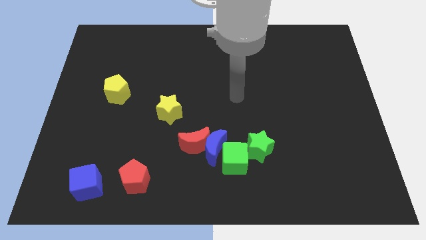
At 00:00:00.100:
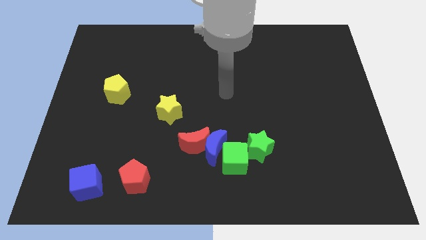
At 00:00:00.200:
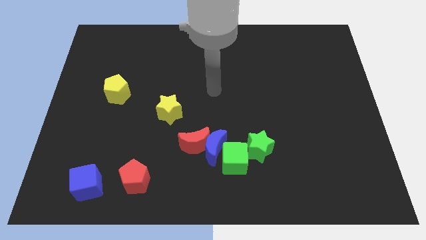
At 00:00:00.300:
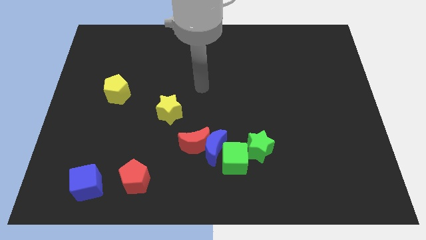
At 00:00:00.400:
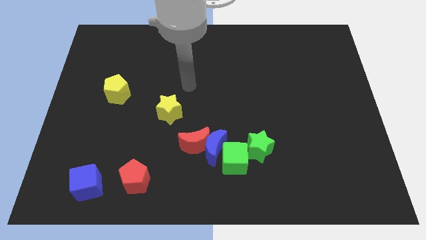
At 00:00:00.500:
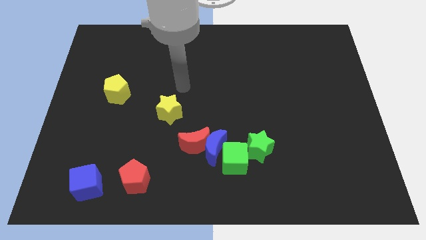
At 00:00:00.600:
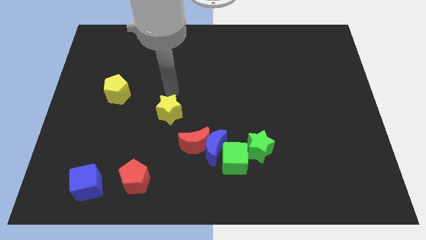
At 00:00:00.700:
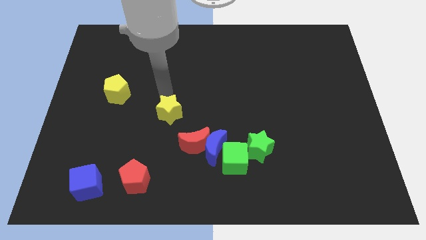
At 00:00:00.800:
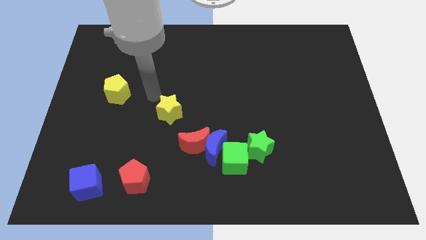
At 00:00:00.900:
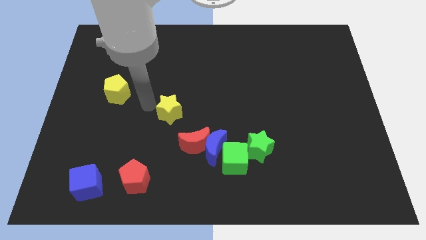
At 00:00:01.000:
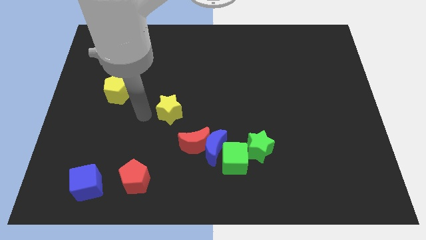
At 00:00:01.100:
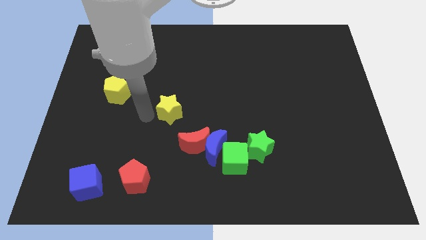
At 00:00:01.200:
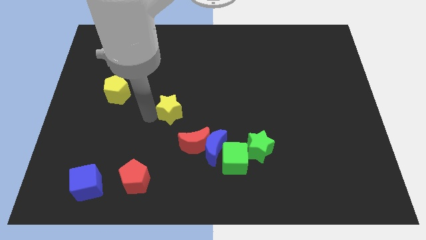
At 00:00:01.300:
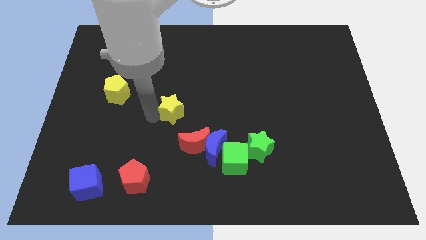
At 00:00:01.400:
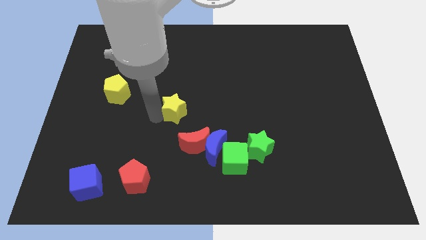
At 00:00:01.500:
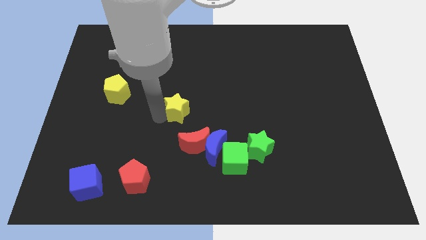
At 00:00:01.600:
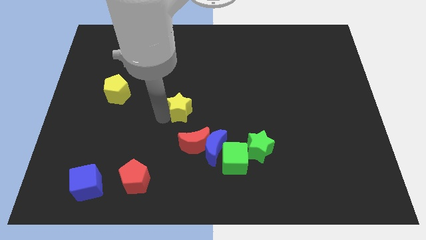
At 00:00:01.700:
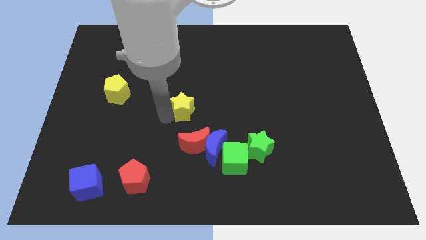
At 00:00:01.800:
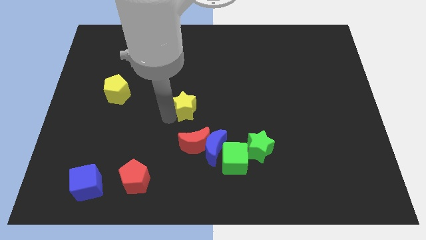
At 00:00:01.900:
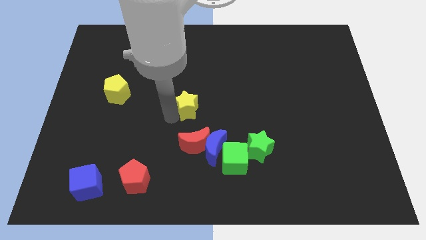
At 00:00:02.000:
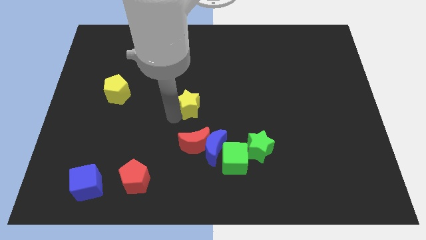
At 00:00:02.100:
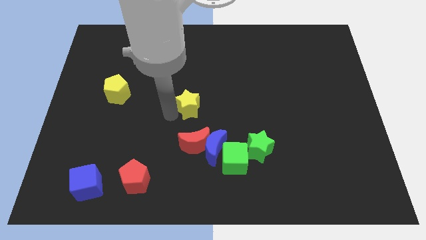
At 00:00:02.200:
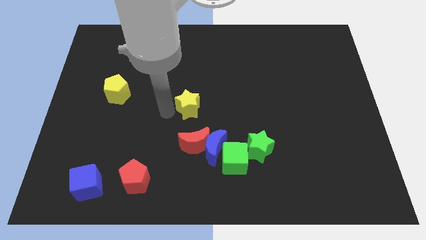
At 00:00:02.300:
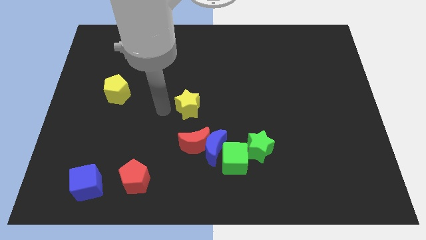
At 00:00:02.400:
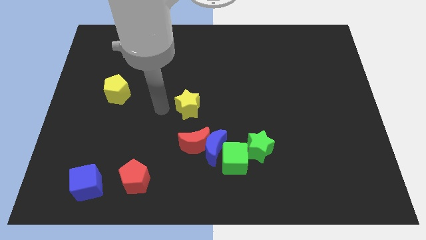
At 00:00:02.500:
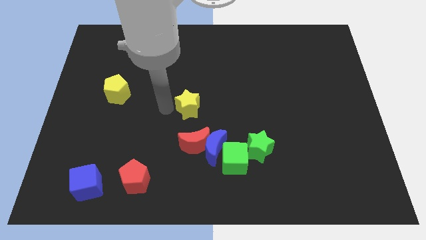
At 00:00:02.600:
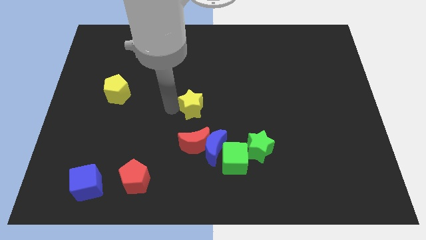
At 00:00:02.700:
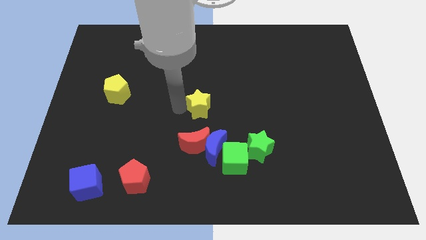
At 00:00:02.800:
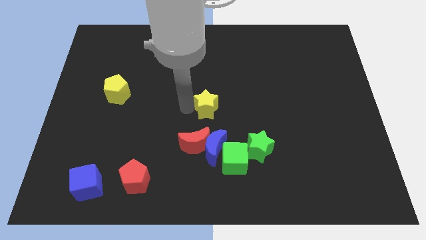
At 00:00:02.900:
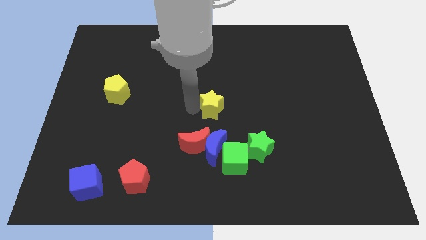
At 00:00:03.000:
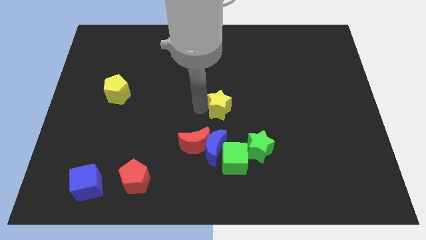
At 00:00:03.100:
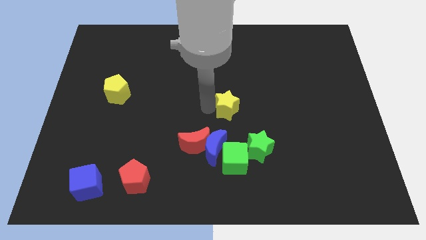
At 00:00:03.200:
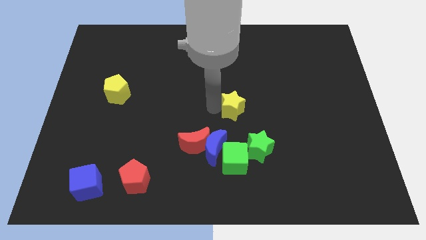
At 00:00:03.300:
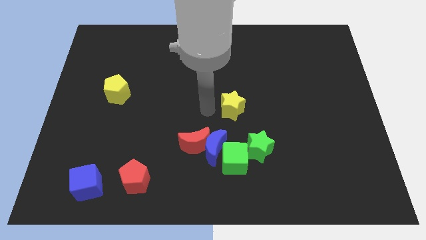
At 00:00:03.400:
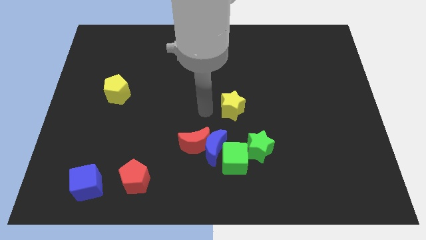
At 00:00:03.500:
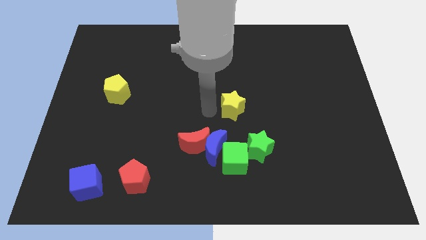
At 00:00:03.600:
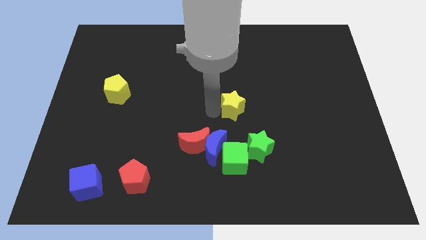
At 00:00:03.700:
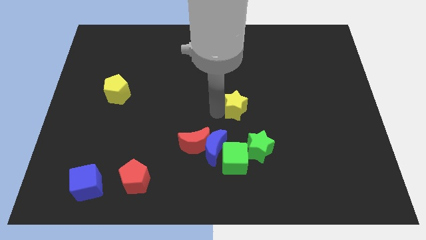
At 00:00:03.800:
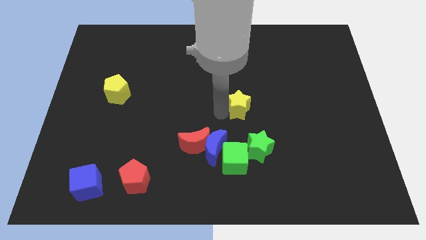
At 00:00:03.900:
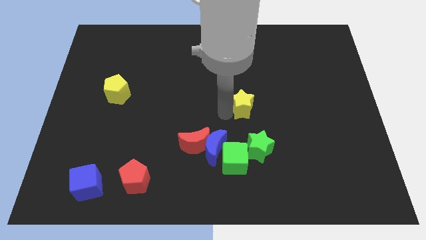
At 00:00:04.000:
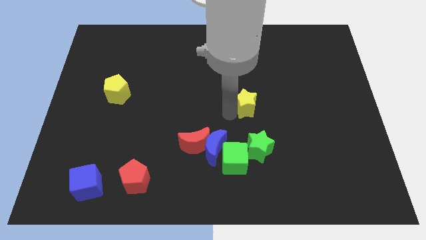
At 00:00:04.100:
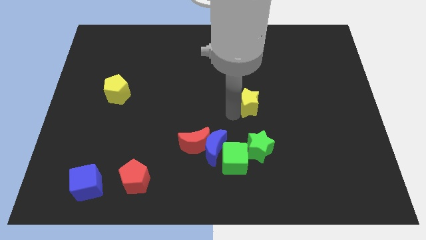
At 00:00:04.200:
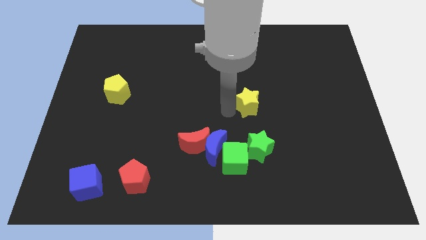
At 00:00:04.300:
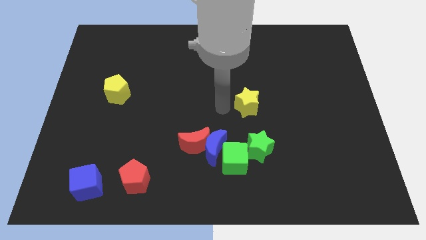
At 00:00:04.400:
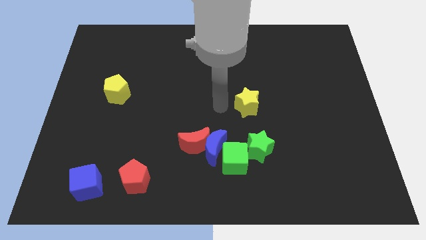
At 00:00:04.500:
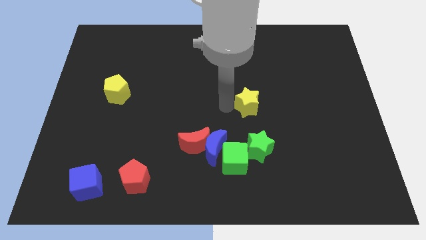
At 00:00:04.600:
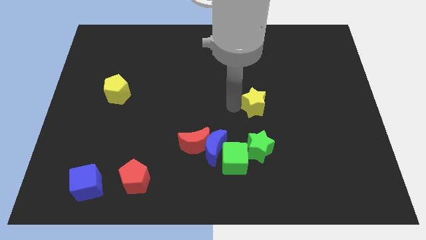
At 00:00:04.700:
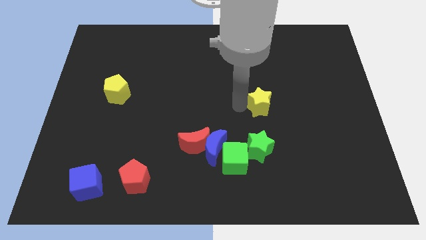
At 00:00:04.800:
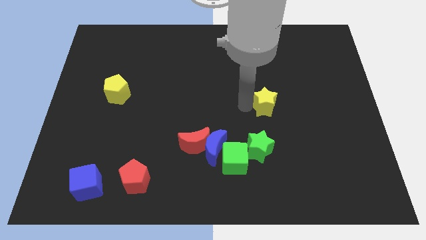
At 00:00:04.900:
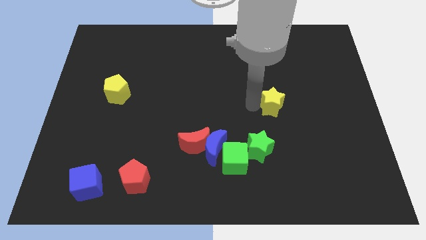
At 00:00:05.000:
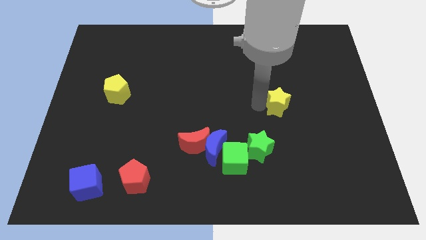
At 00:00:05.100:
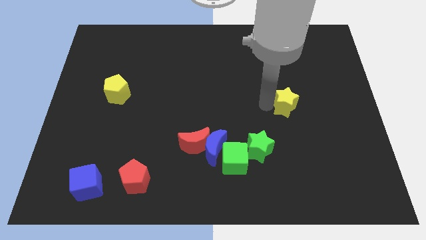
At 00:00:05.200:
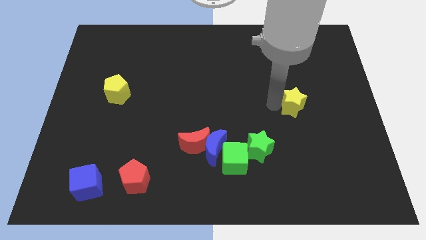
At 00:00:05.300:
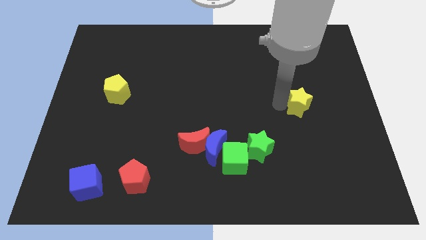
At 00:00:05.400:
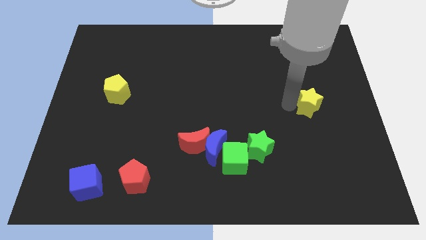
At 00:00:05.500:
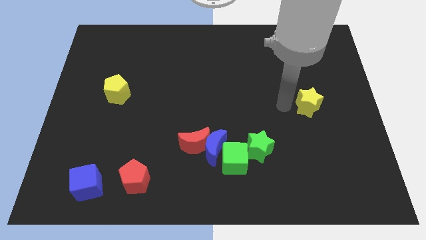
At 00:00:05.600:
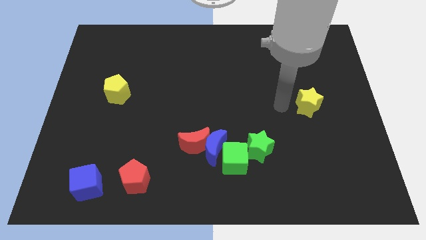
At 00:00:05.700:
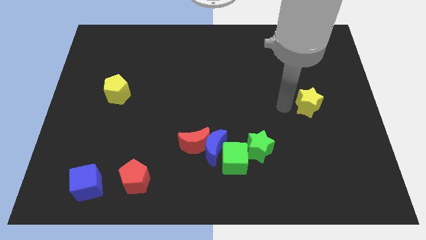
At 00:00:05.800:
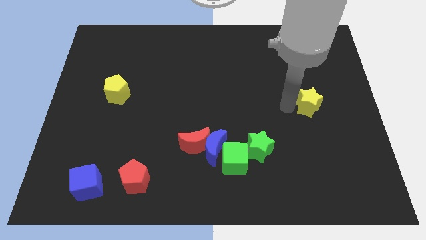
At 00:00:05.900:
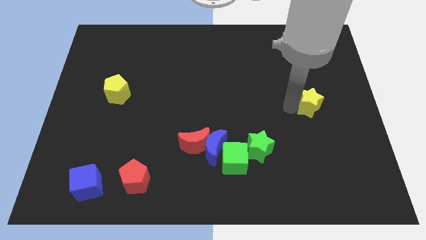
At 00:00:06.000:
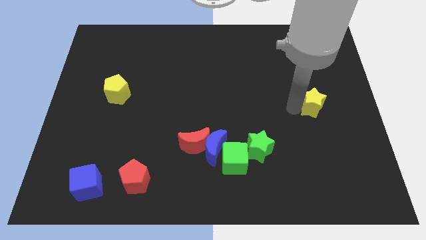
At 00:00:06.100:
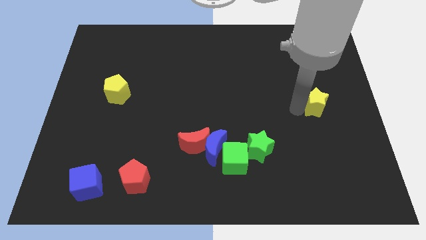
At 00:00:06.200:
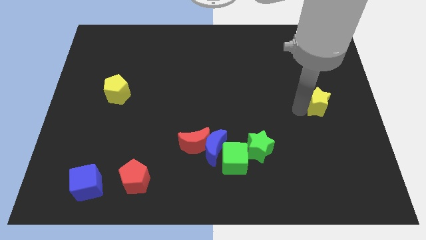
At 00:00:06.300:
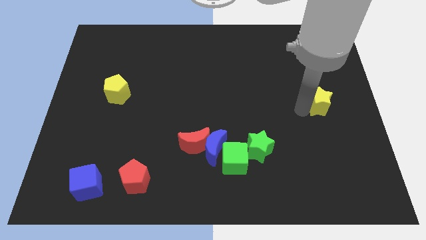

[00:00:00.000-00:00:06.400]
put the yellow star to the center right
